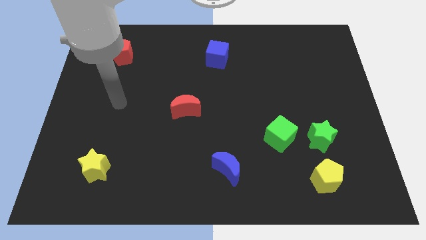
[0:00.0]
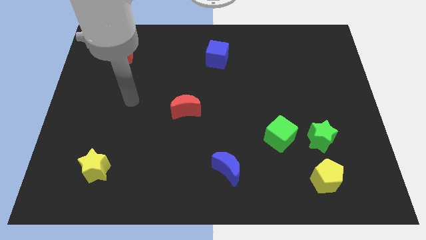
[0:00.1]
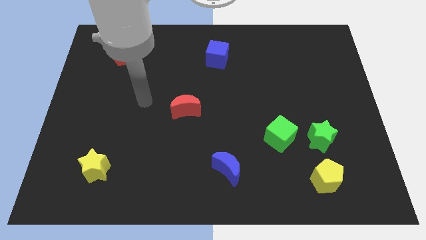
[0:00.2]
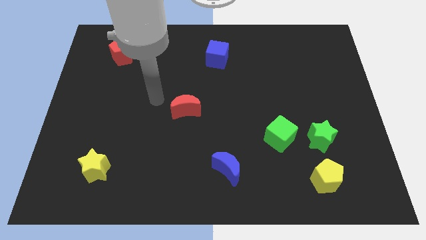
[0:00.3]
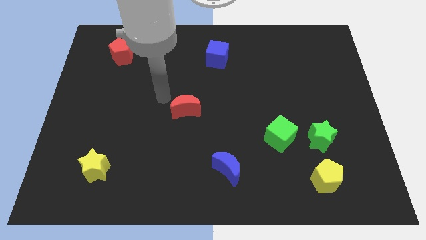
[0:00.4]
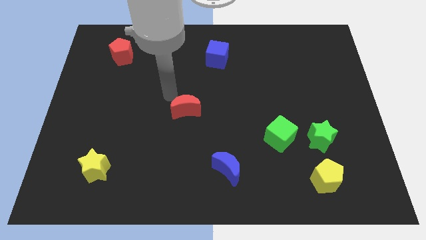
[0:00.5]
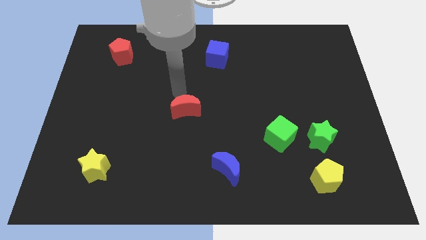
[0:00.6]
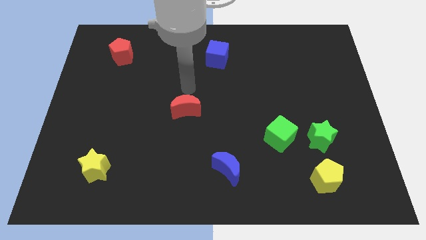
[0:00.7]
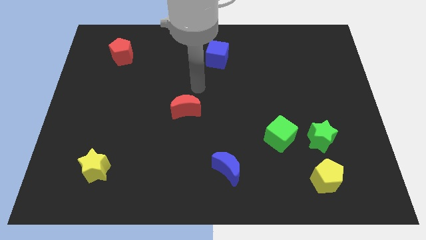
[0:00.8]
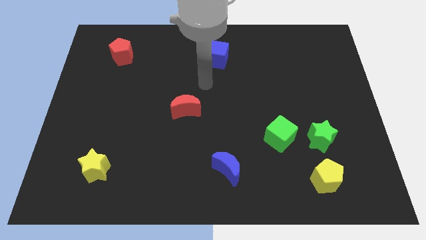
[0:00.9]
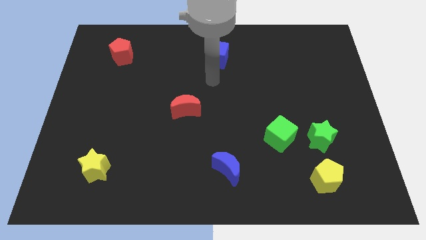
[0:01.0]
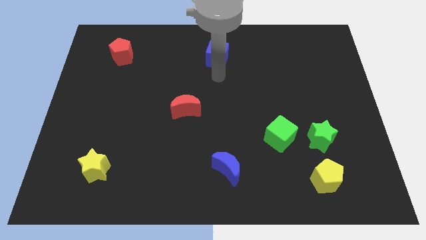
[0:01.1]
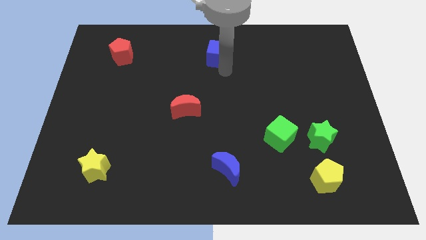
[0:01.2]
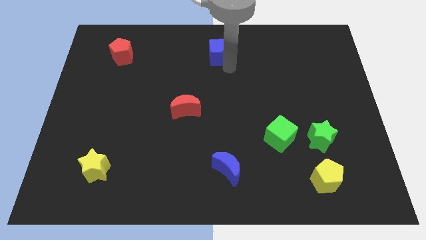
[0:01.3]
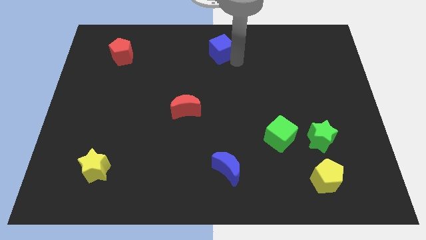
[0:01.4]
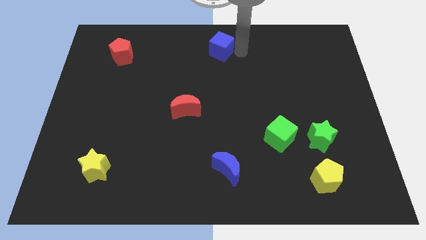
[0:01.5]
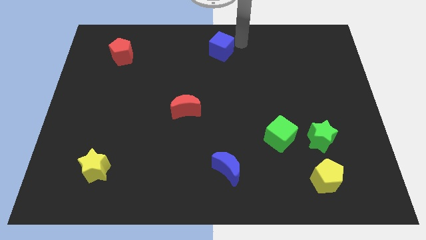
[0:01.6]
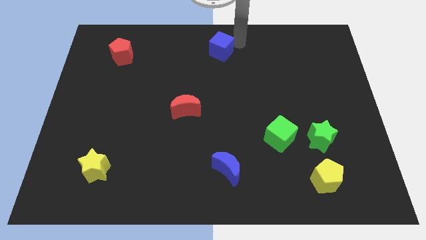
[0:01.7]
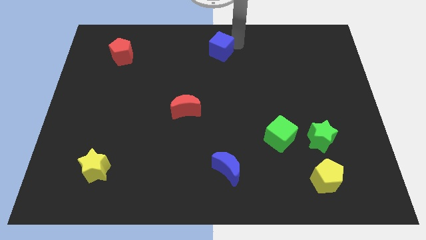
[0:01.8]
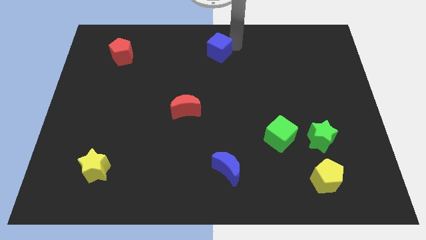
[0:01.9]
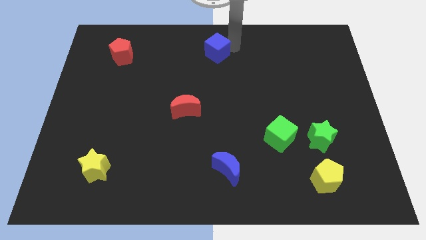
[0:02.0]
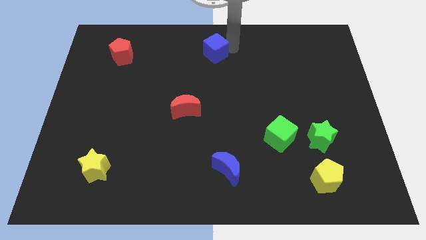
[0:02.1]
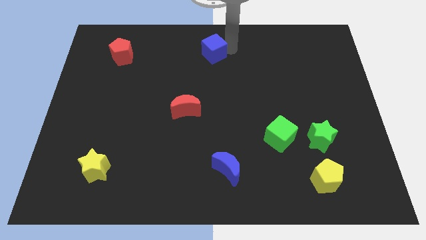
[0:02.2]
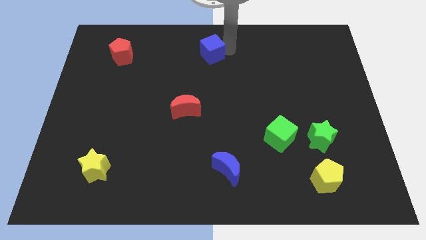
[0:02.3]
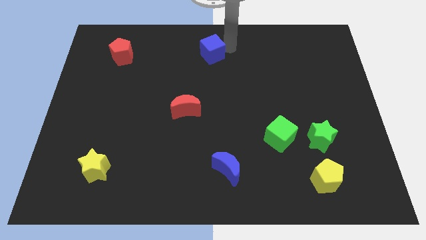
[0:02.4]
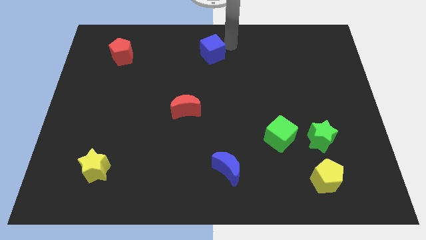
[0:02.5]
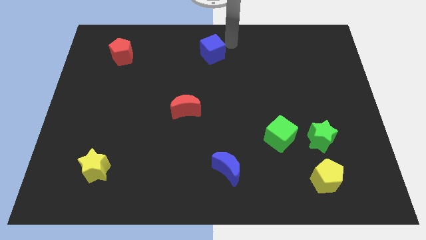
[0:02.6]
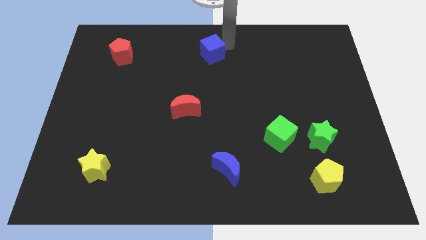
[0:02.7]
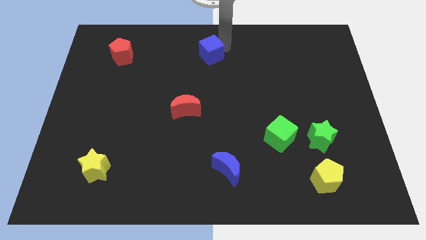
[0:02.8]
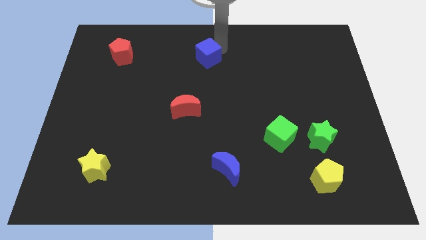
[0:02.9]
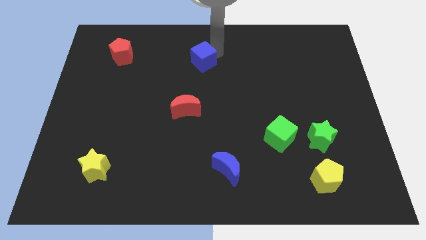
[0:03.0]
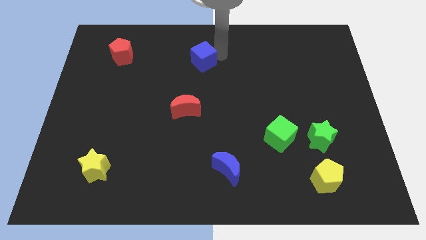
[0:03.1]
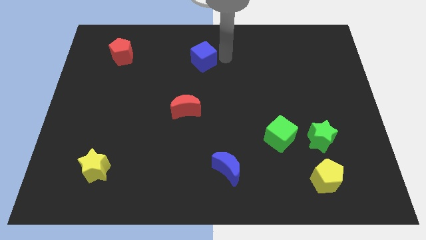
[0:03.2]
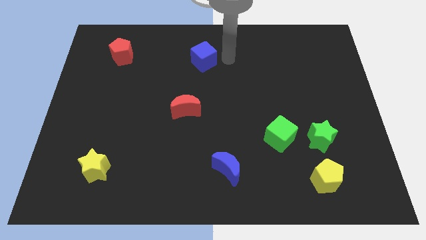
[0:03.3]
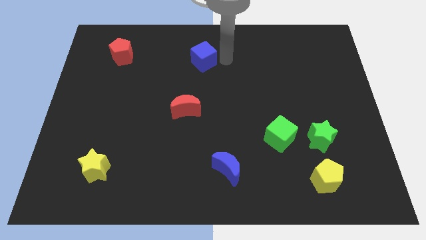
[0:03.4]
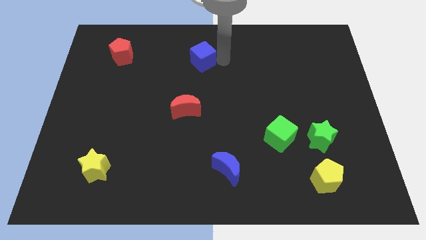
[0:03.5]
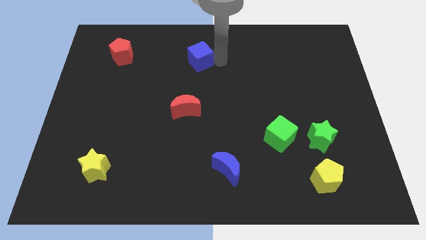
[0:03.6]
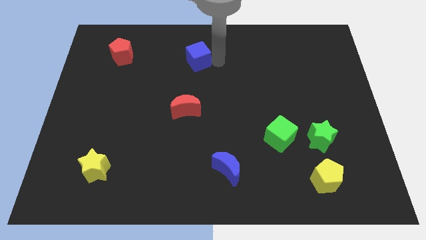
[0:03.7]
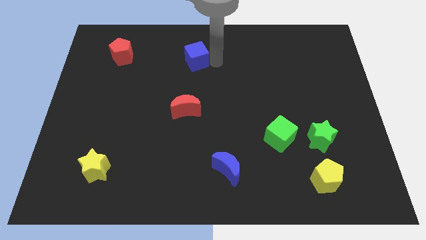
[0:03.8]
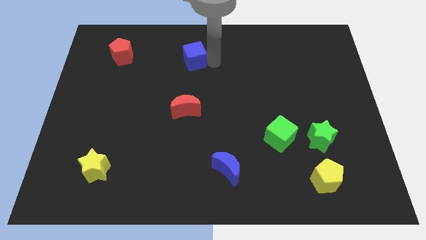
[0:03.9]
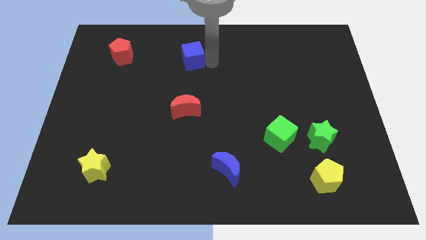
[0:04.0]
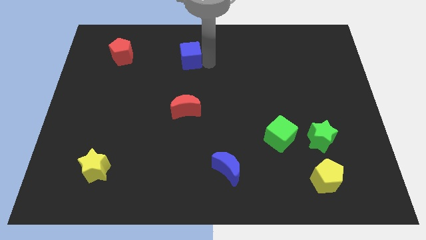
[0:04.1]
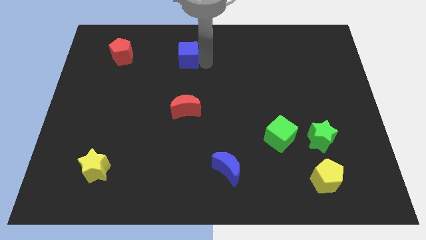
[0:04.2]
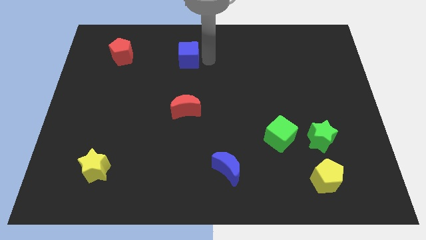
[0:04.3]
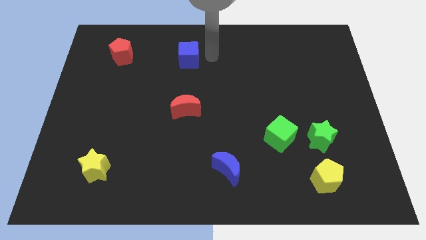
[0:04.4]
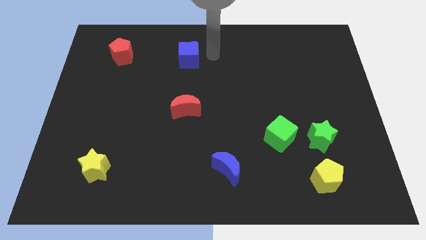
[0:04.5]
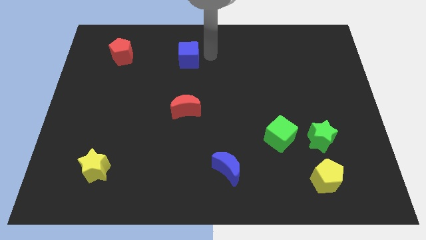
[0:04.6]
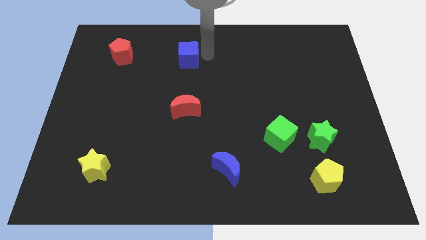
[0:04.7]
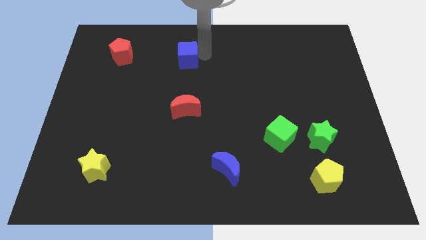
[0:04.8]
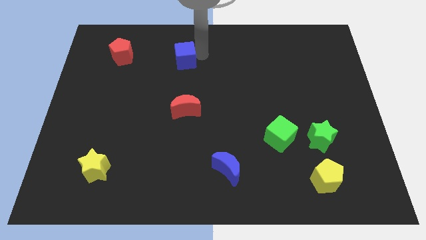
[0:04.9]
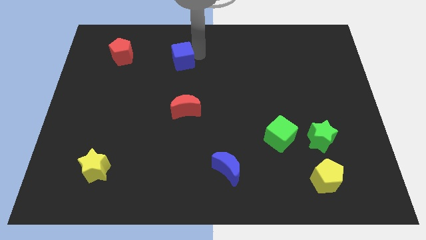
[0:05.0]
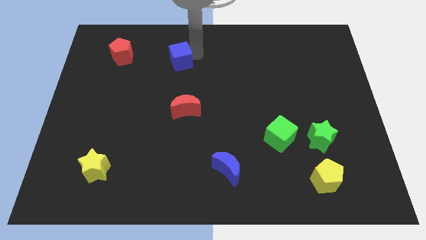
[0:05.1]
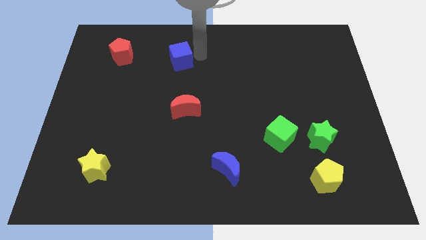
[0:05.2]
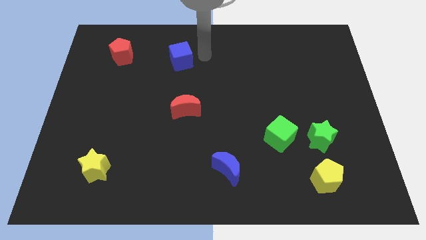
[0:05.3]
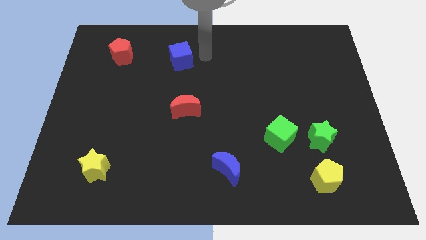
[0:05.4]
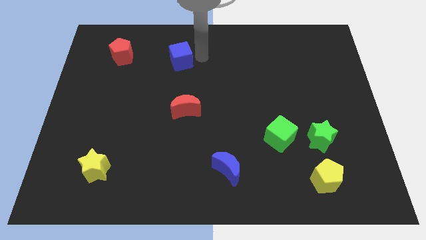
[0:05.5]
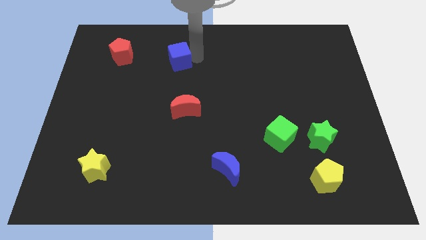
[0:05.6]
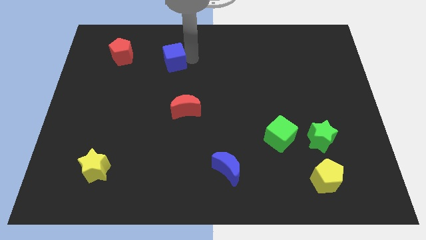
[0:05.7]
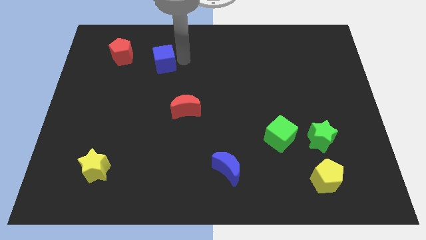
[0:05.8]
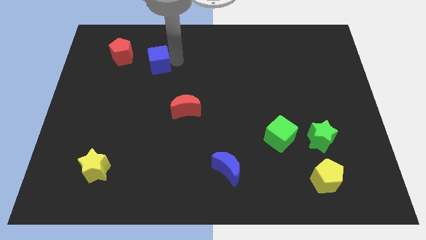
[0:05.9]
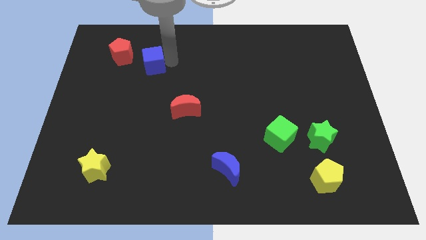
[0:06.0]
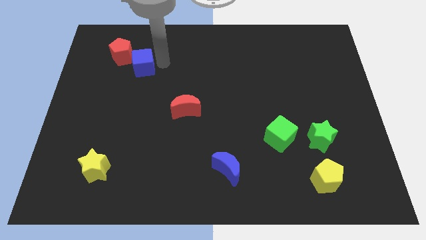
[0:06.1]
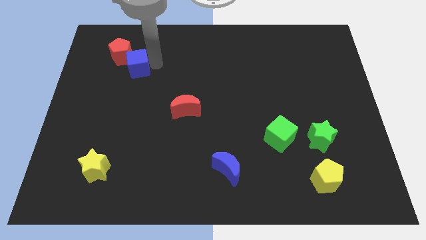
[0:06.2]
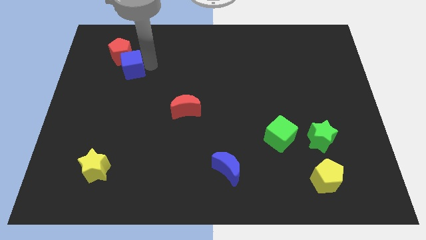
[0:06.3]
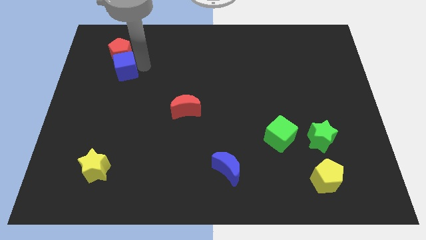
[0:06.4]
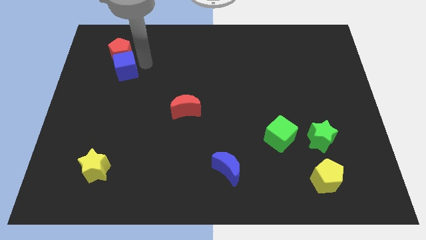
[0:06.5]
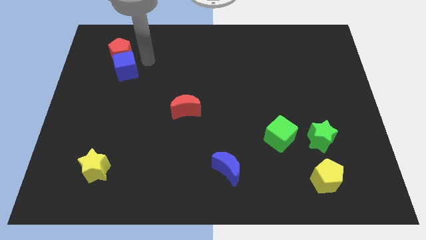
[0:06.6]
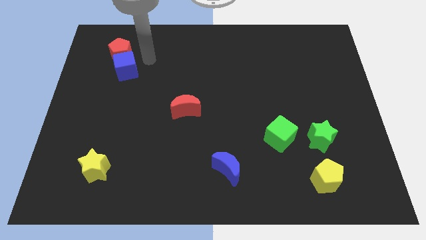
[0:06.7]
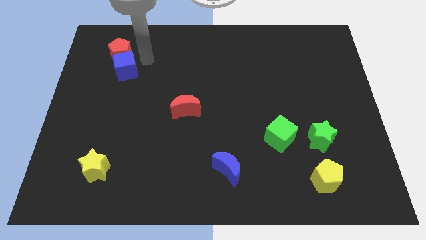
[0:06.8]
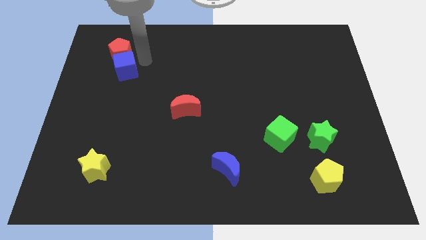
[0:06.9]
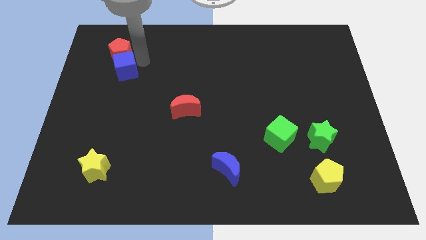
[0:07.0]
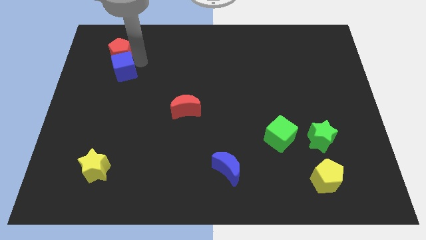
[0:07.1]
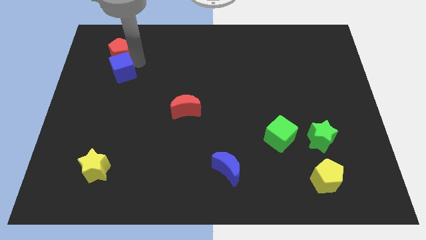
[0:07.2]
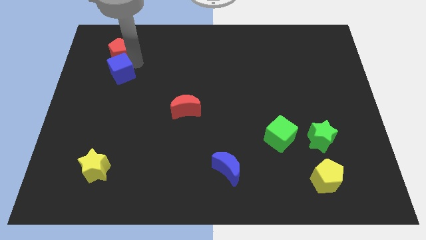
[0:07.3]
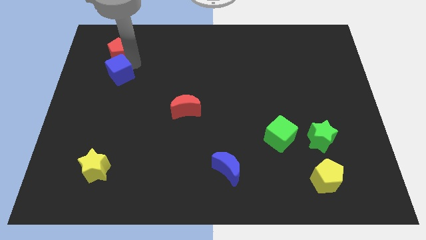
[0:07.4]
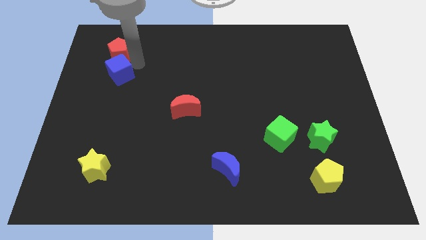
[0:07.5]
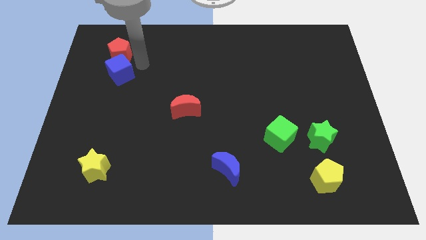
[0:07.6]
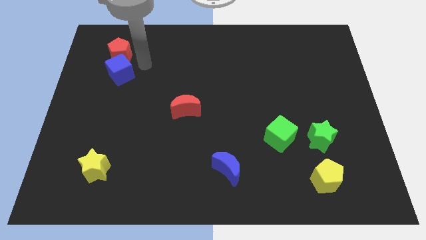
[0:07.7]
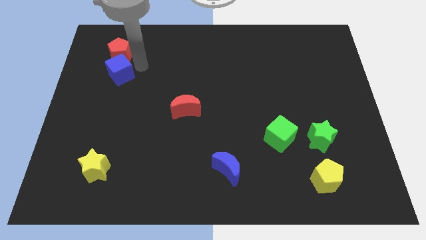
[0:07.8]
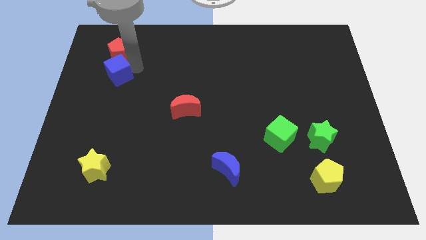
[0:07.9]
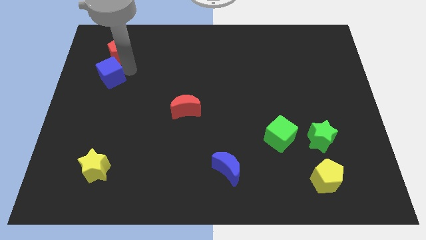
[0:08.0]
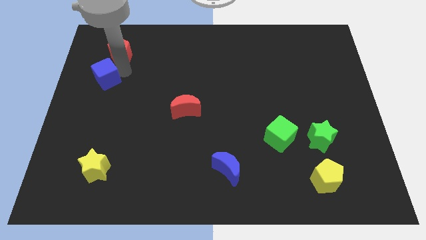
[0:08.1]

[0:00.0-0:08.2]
push the blue cube to the left side of the board
